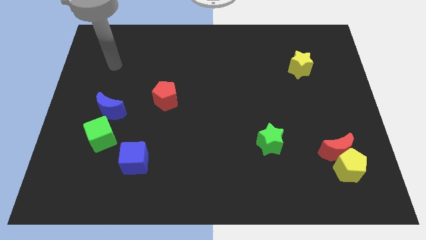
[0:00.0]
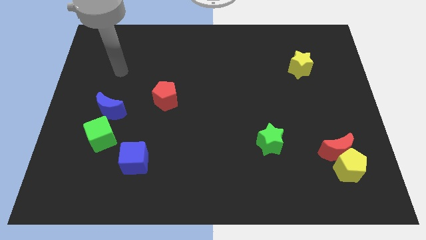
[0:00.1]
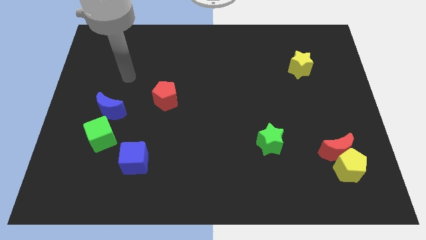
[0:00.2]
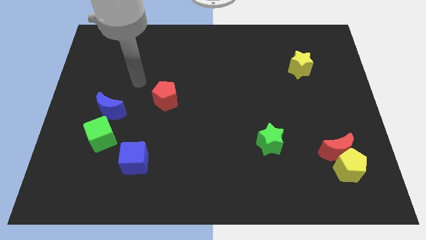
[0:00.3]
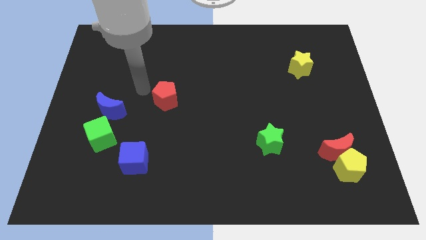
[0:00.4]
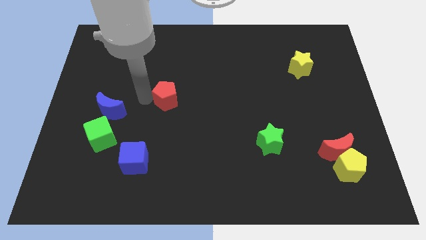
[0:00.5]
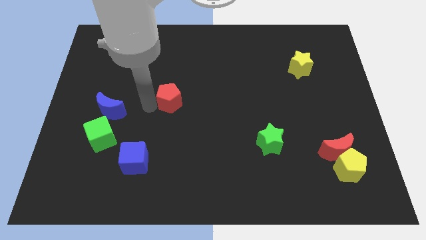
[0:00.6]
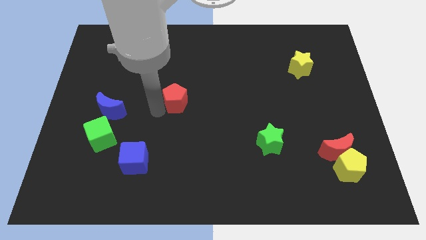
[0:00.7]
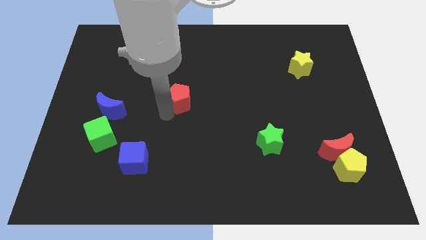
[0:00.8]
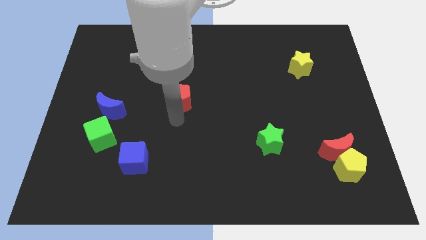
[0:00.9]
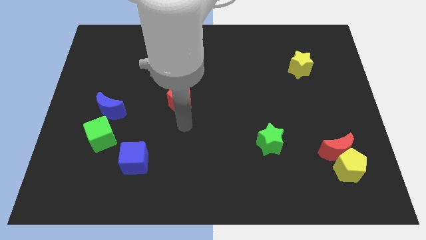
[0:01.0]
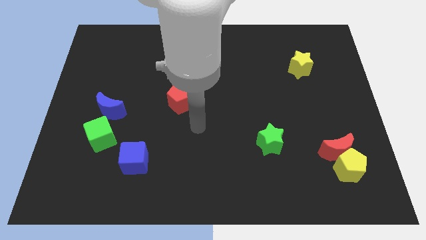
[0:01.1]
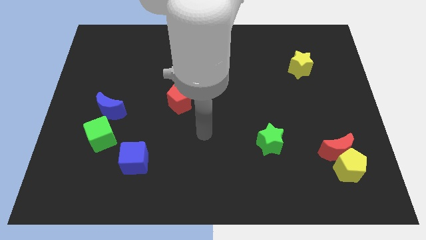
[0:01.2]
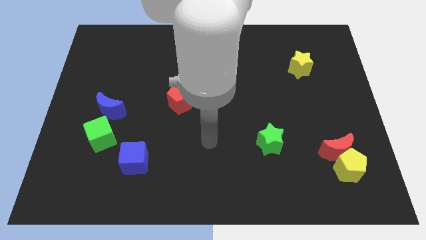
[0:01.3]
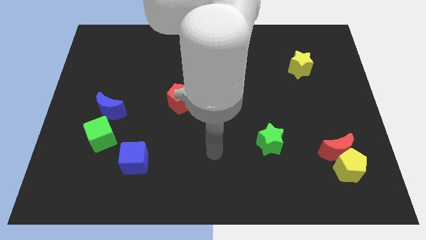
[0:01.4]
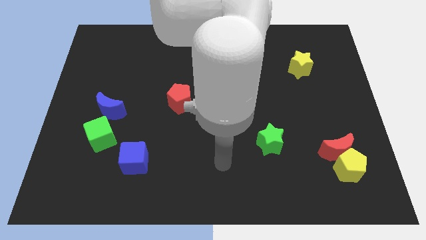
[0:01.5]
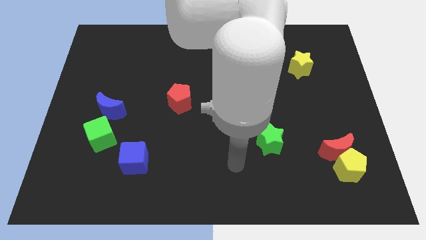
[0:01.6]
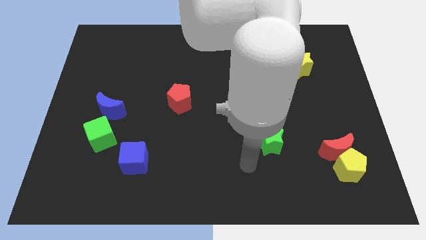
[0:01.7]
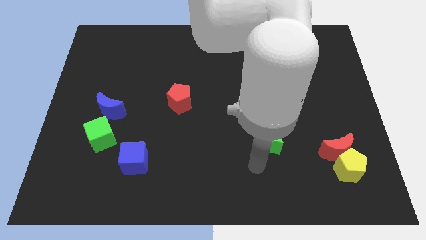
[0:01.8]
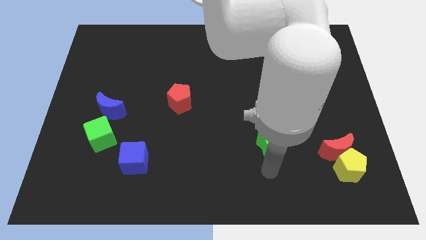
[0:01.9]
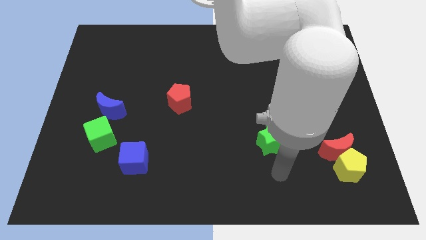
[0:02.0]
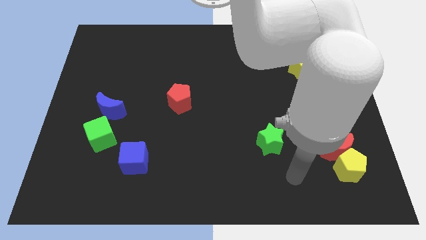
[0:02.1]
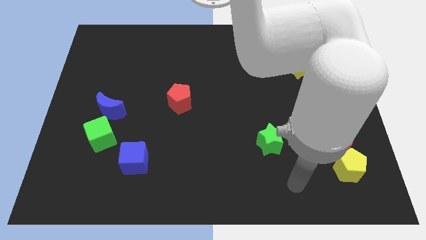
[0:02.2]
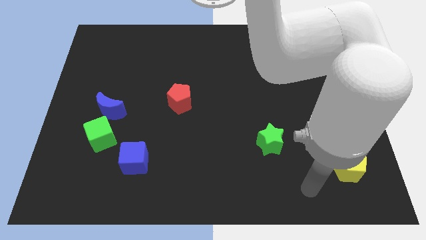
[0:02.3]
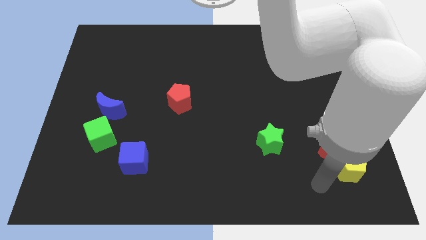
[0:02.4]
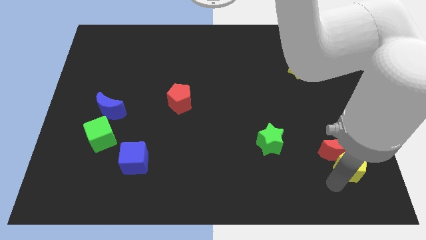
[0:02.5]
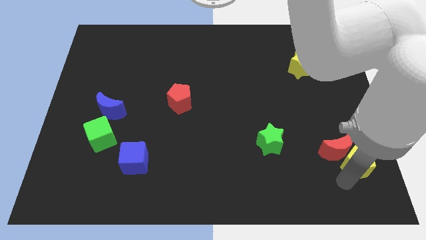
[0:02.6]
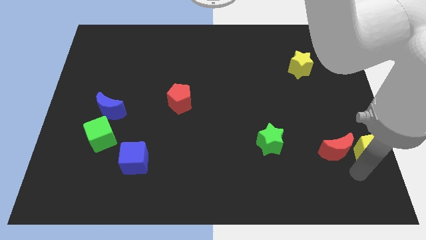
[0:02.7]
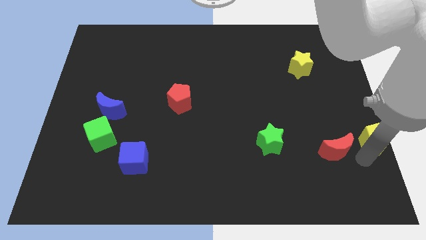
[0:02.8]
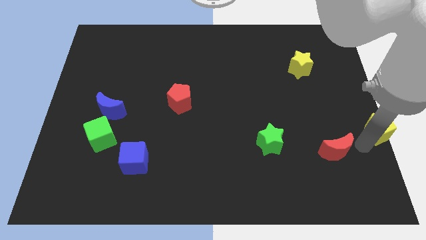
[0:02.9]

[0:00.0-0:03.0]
move the red moon away from the yellow pentagon

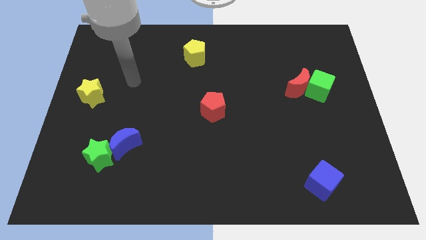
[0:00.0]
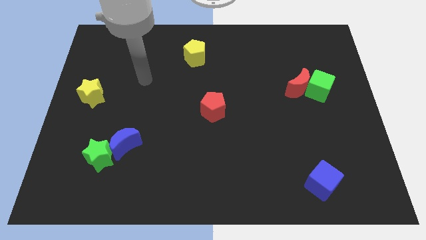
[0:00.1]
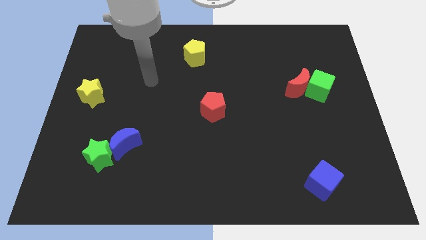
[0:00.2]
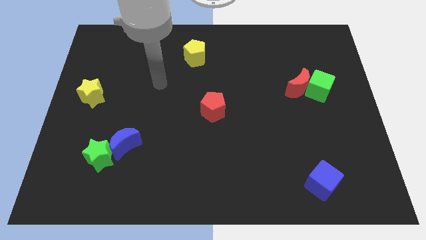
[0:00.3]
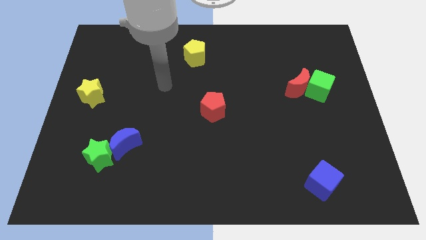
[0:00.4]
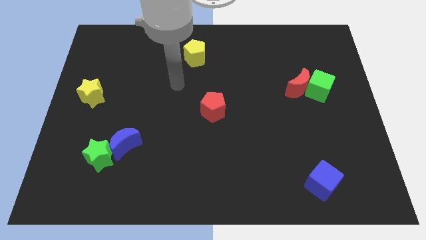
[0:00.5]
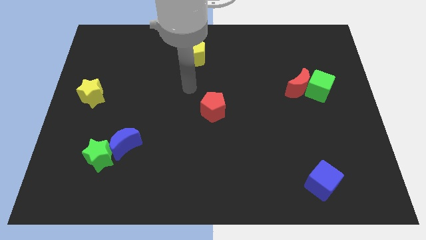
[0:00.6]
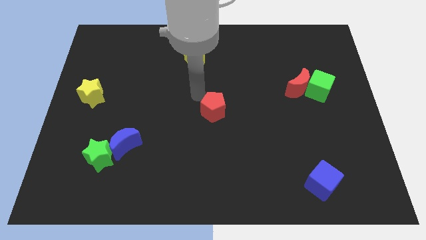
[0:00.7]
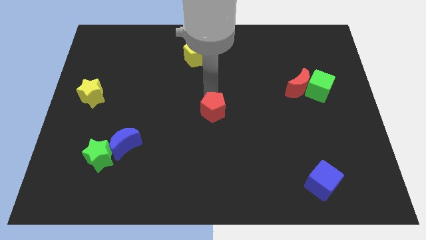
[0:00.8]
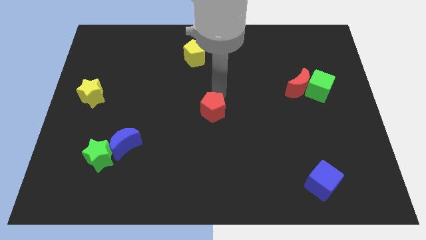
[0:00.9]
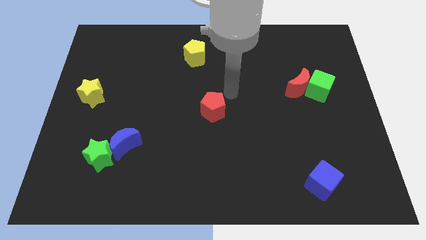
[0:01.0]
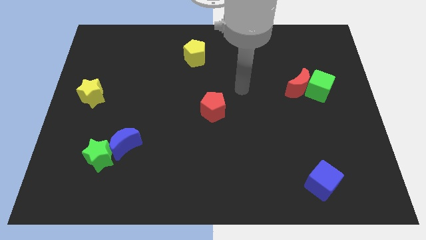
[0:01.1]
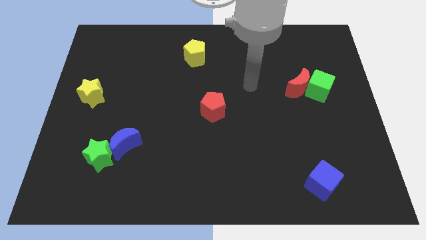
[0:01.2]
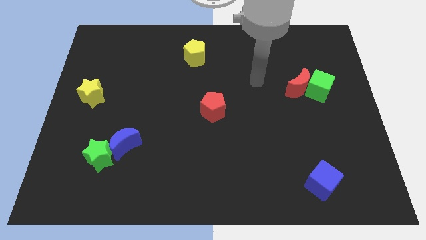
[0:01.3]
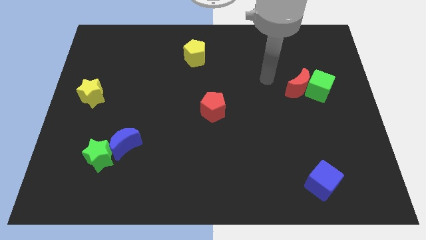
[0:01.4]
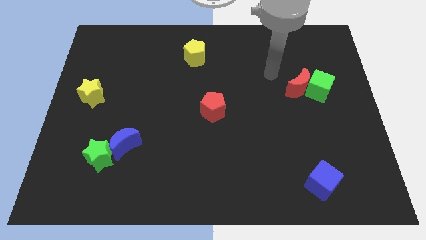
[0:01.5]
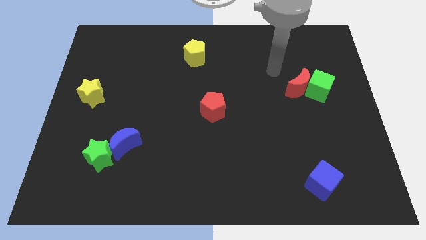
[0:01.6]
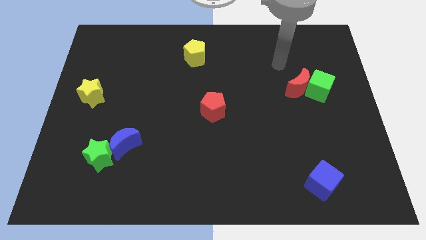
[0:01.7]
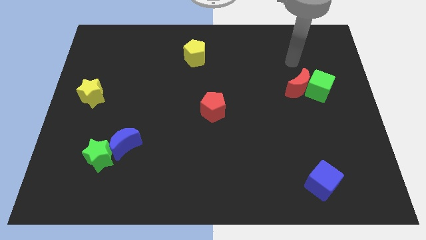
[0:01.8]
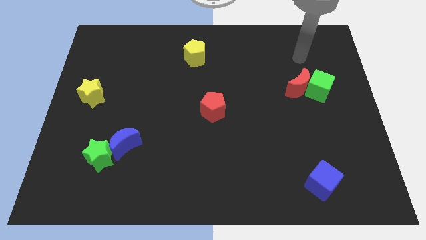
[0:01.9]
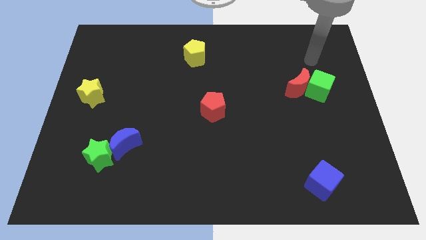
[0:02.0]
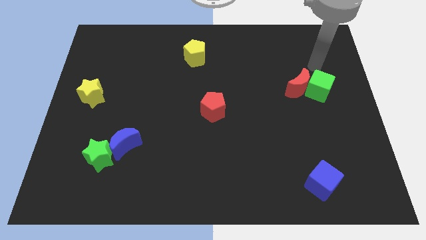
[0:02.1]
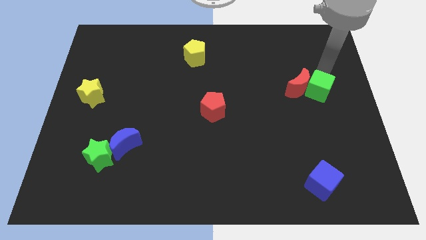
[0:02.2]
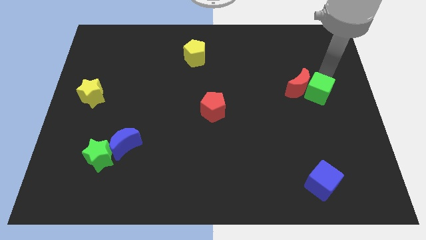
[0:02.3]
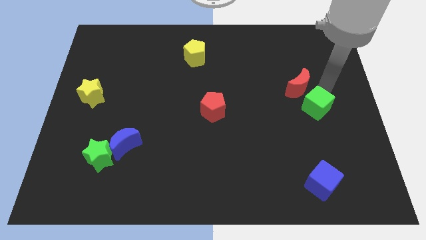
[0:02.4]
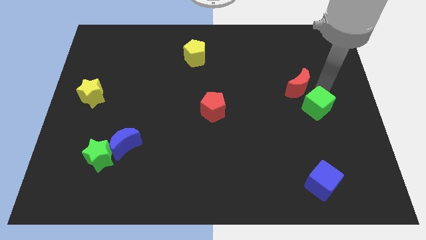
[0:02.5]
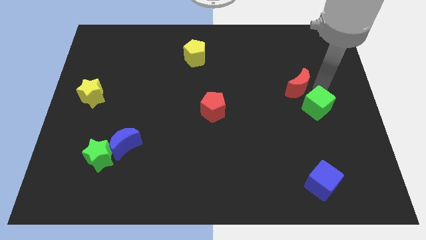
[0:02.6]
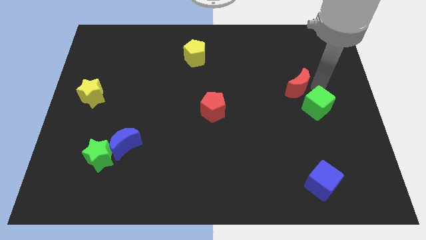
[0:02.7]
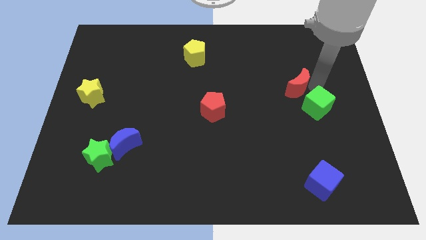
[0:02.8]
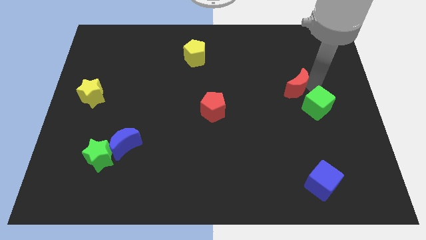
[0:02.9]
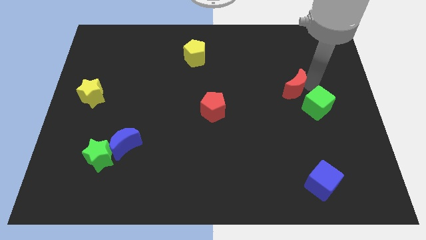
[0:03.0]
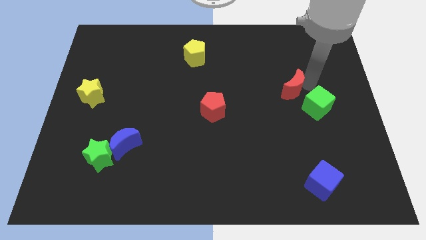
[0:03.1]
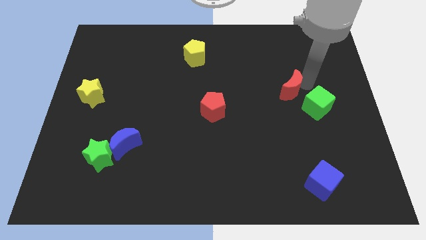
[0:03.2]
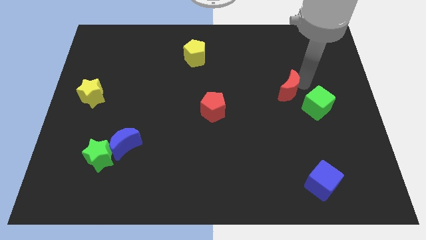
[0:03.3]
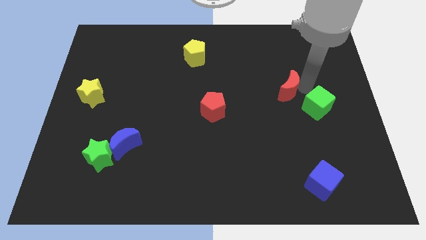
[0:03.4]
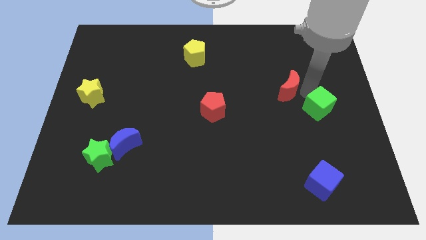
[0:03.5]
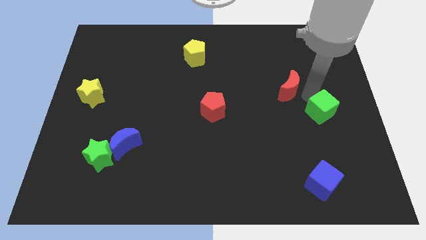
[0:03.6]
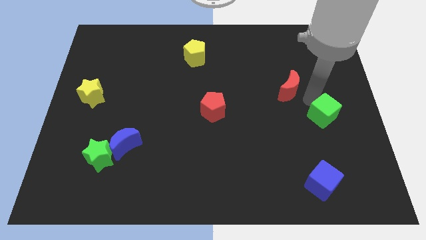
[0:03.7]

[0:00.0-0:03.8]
pull the red moon apart from the green cube

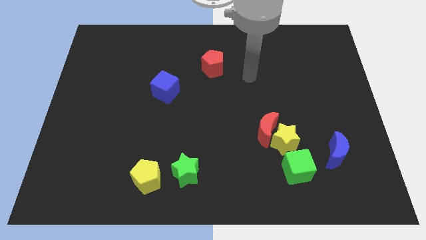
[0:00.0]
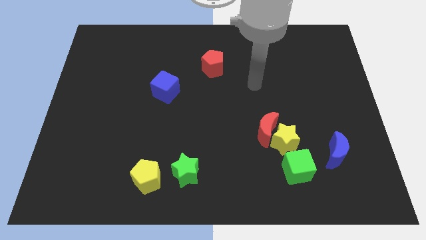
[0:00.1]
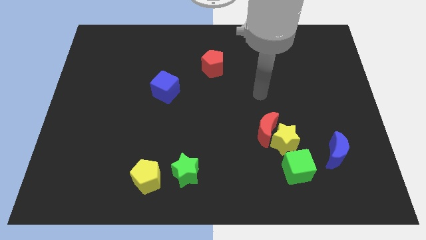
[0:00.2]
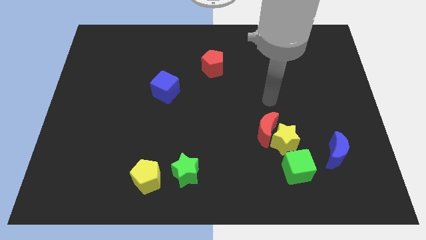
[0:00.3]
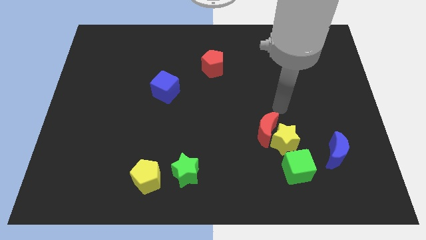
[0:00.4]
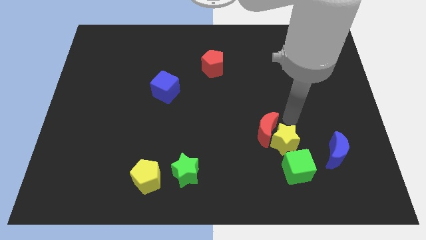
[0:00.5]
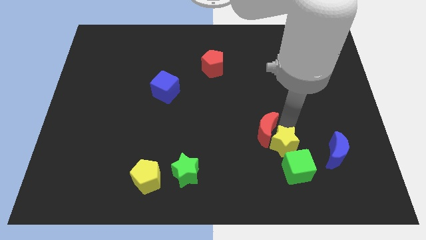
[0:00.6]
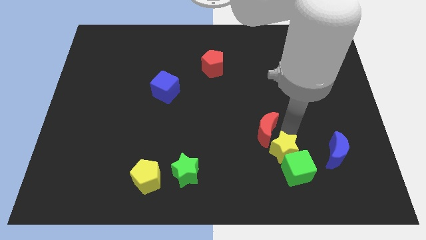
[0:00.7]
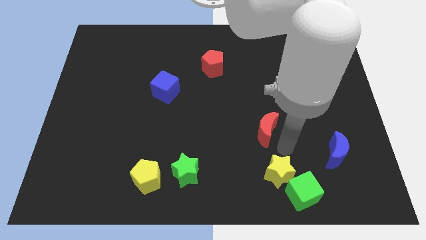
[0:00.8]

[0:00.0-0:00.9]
pull the red moon apart from the yellow star

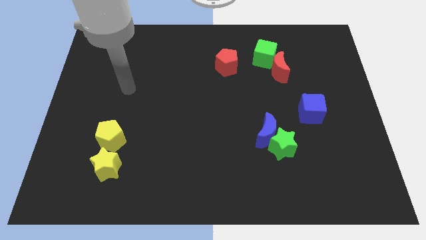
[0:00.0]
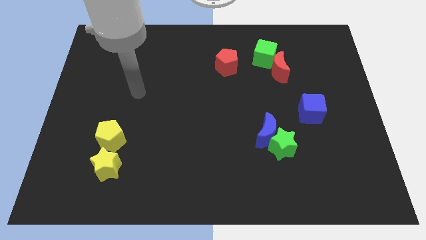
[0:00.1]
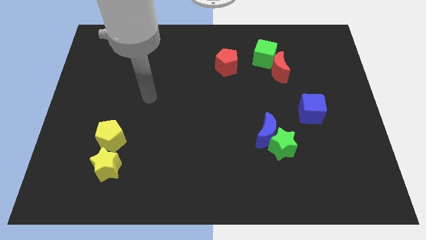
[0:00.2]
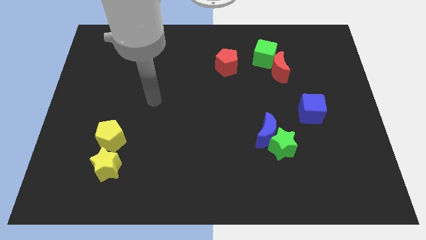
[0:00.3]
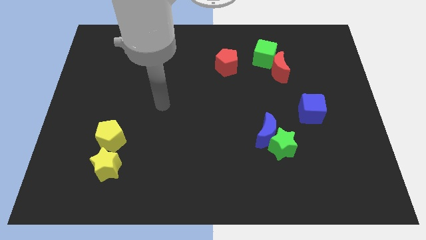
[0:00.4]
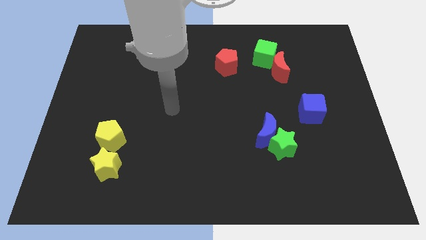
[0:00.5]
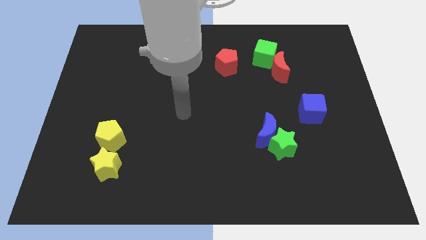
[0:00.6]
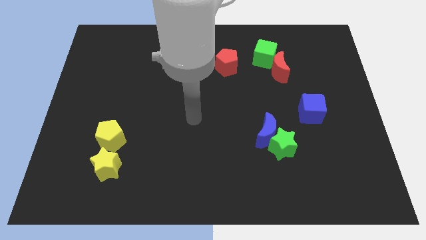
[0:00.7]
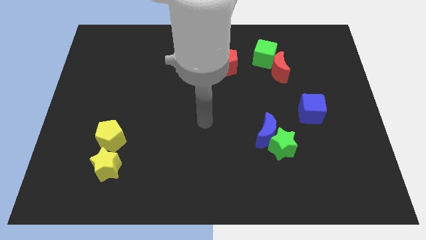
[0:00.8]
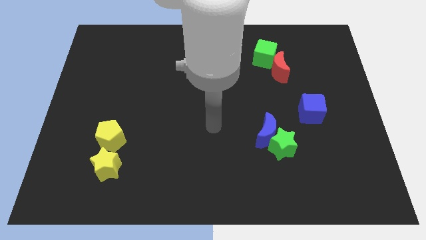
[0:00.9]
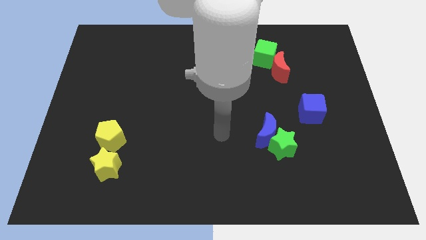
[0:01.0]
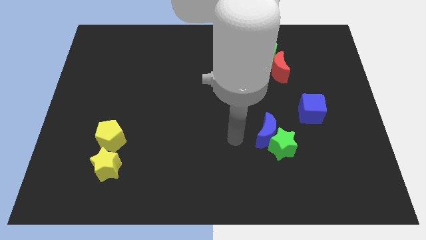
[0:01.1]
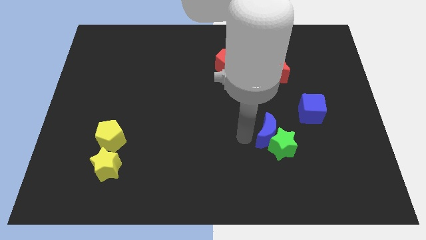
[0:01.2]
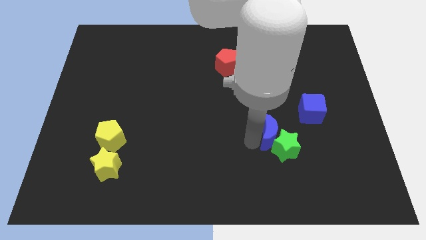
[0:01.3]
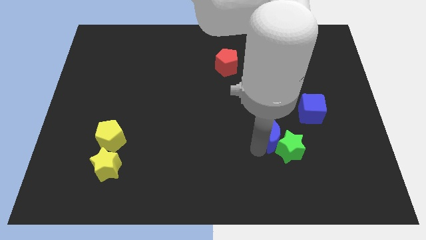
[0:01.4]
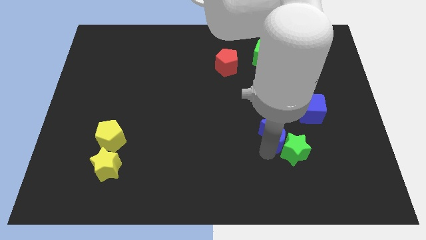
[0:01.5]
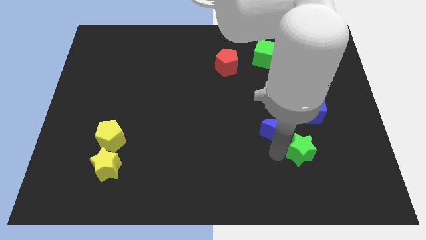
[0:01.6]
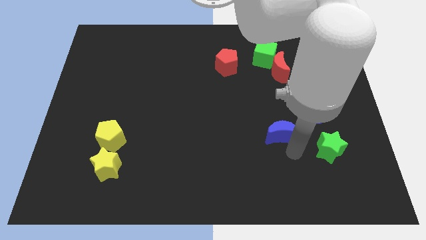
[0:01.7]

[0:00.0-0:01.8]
pull the blue moon apart from the green star
